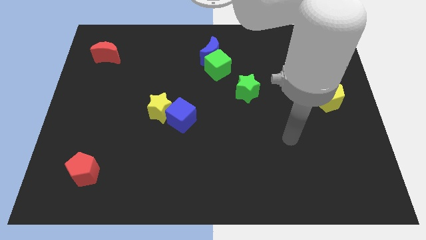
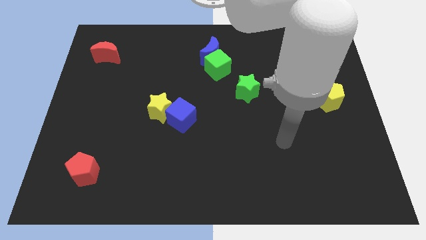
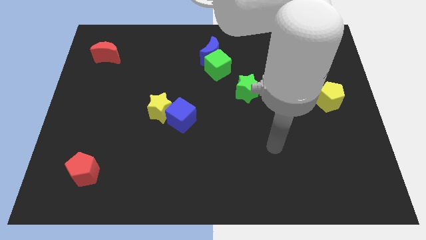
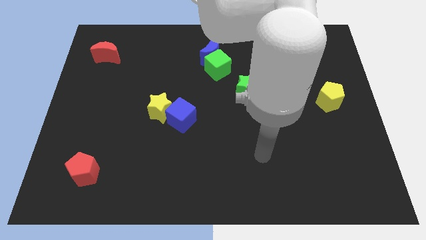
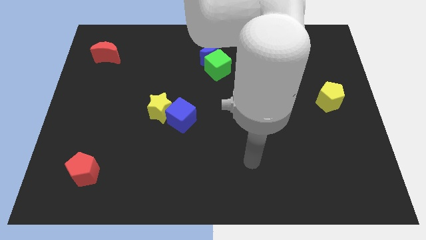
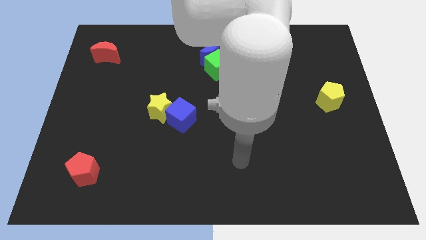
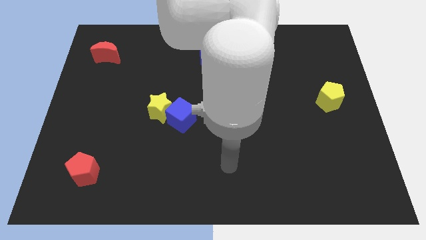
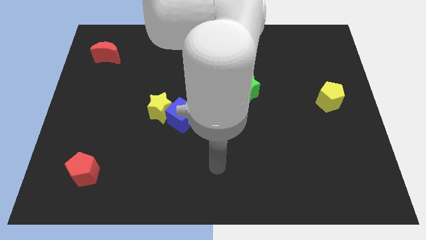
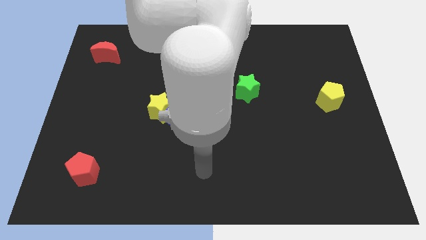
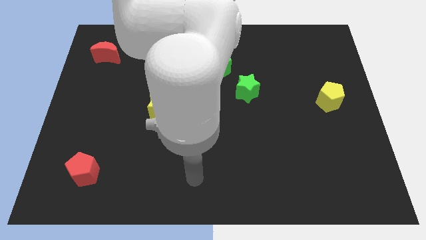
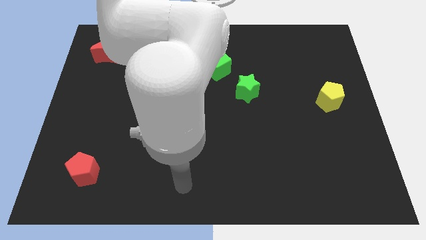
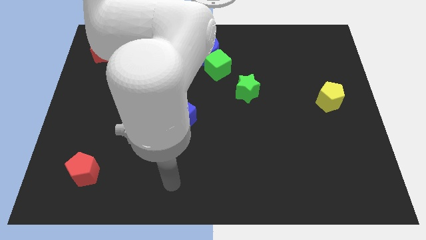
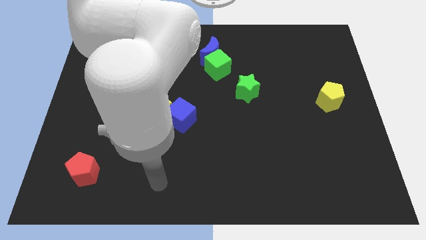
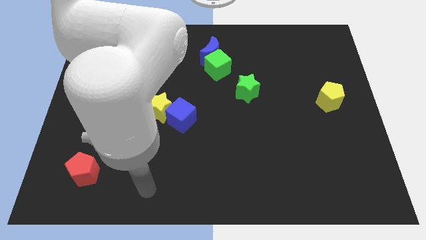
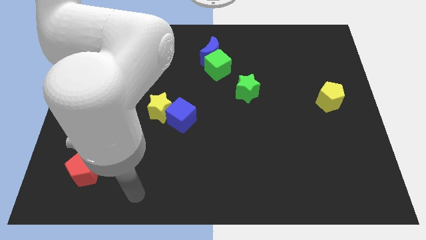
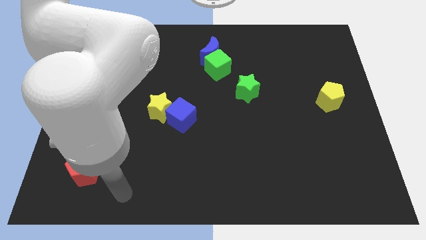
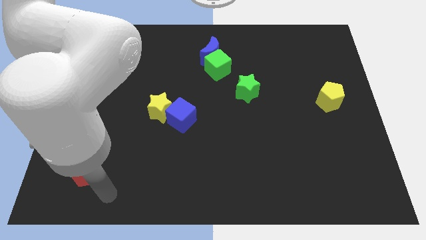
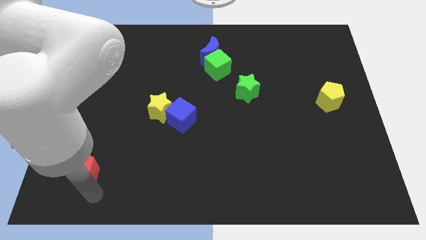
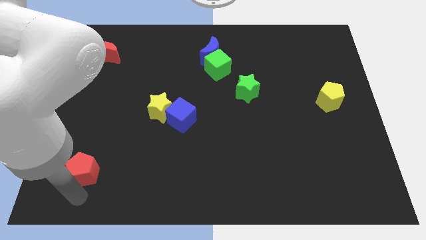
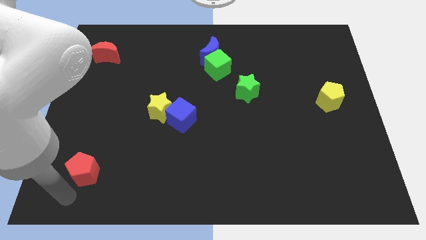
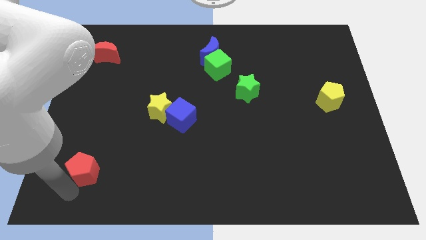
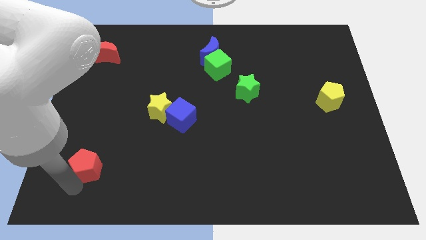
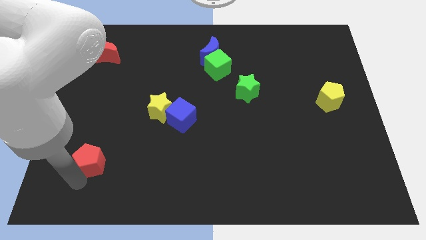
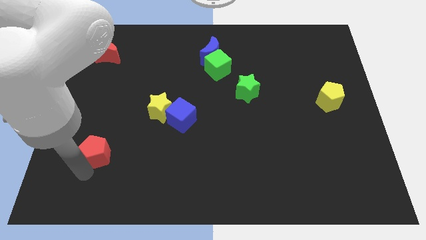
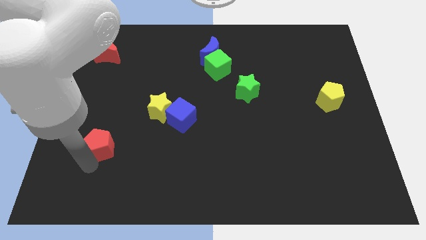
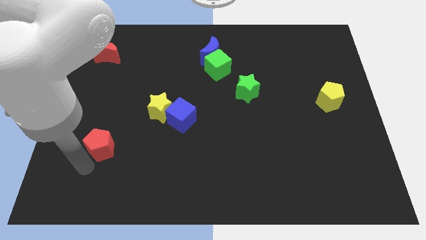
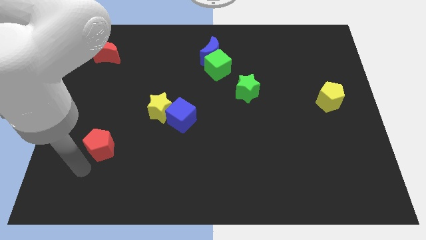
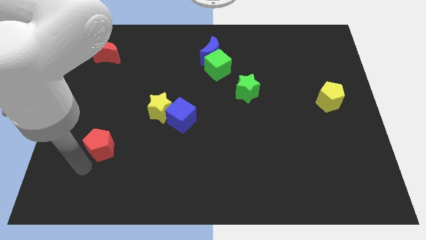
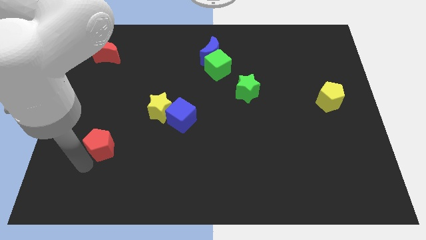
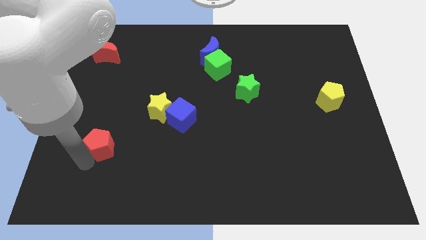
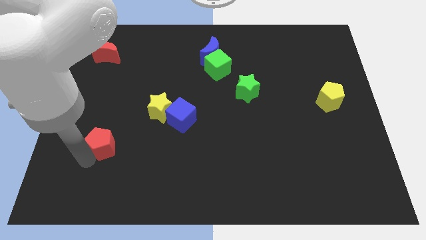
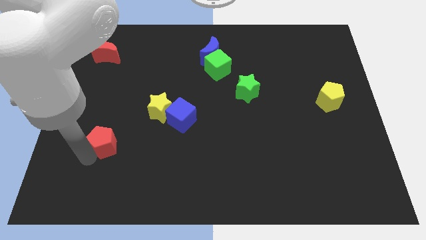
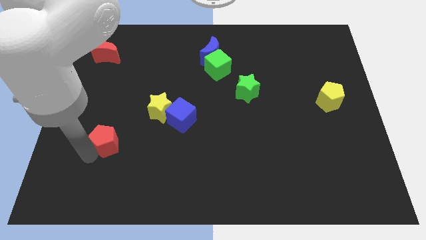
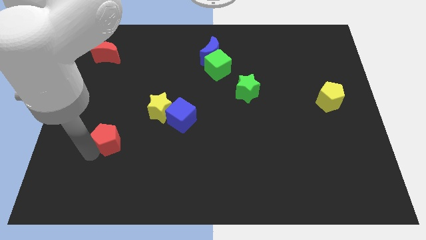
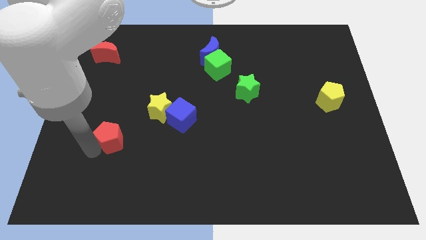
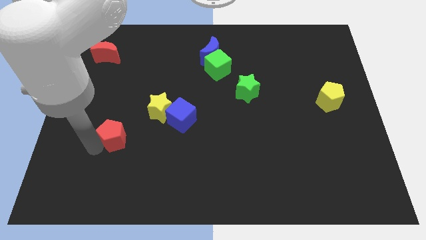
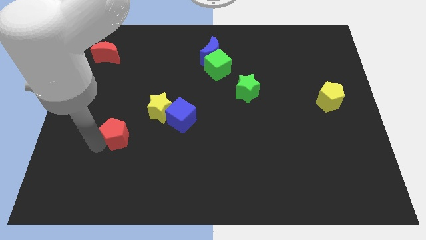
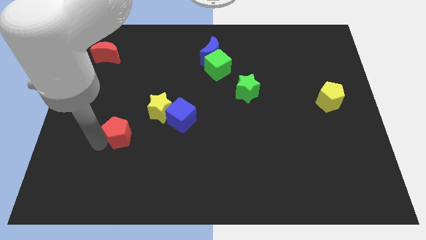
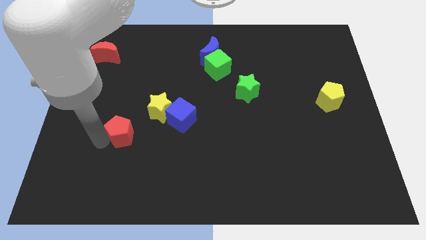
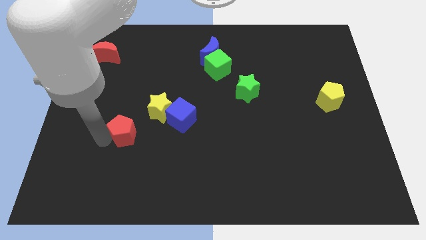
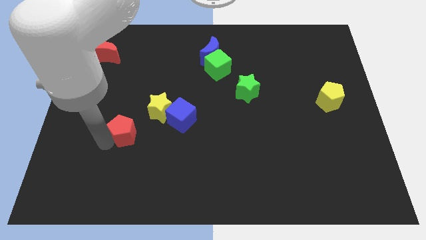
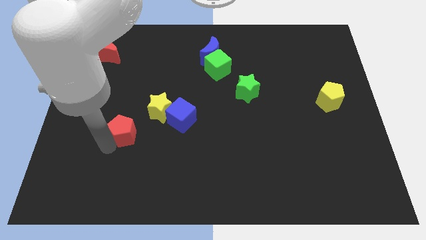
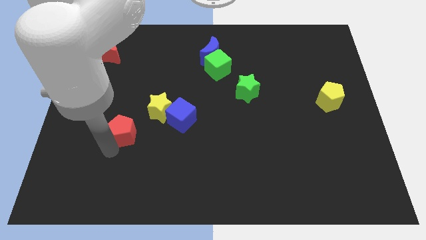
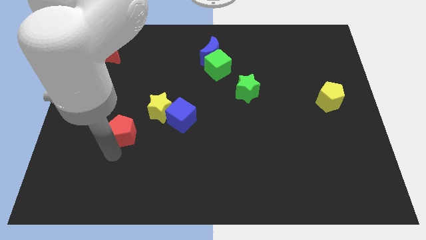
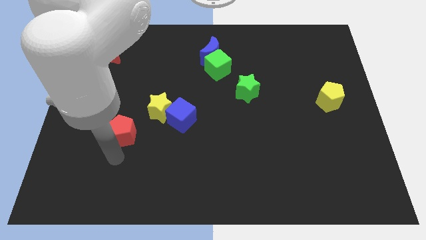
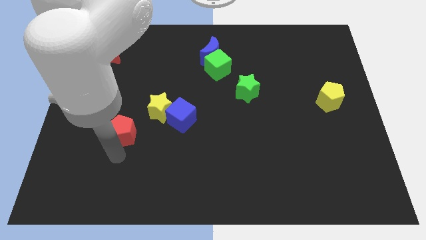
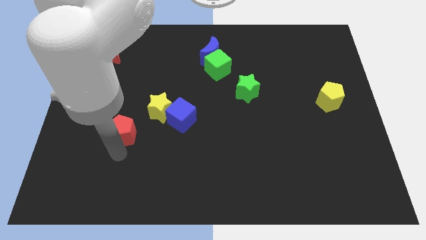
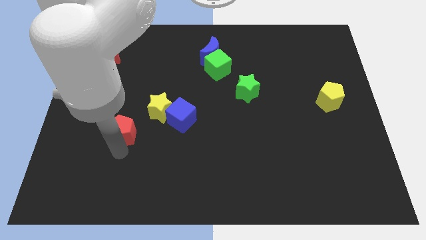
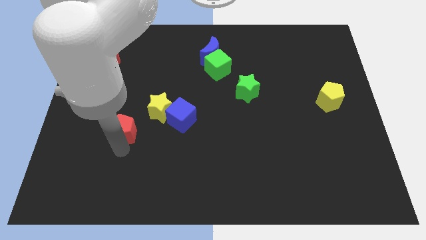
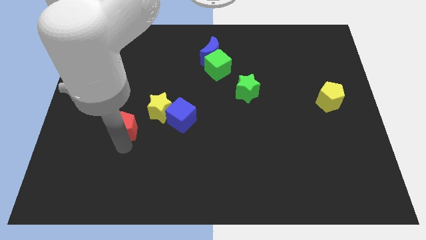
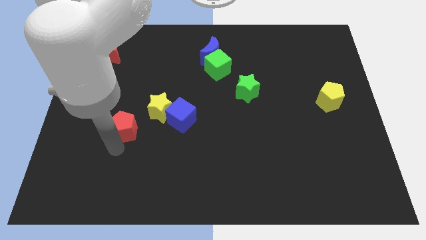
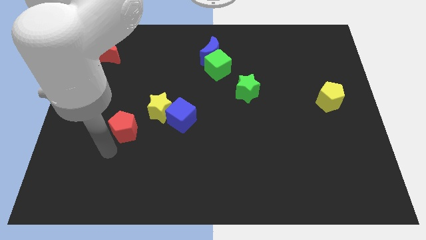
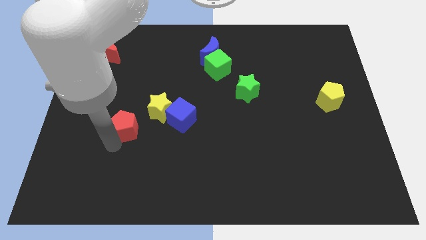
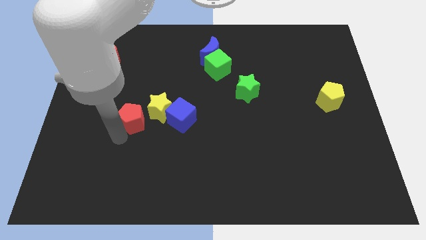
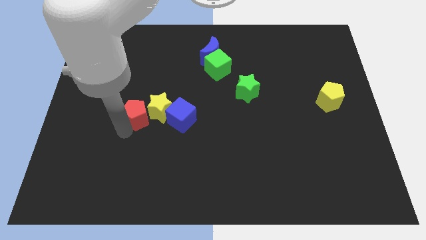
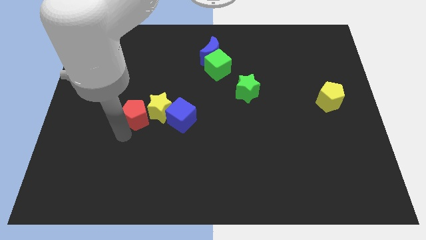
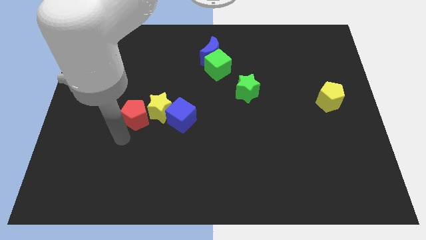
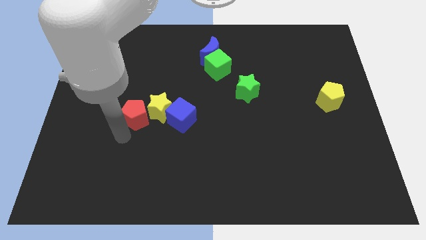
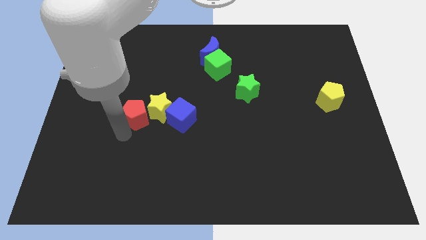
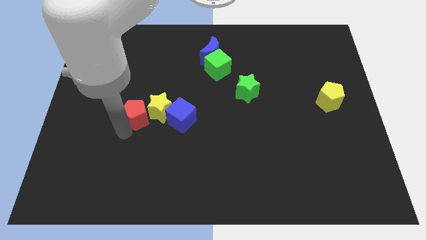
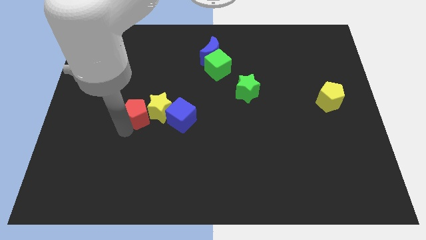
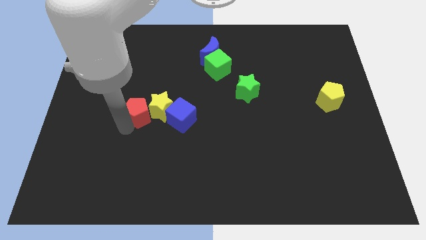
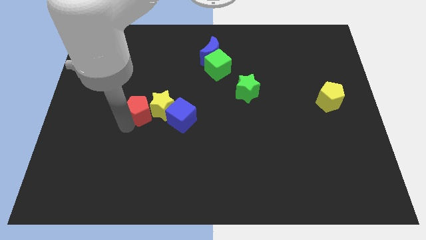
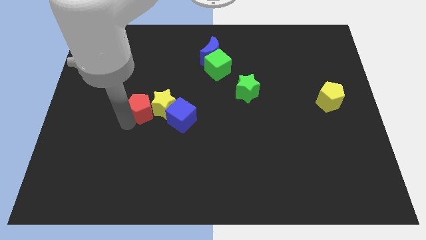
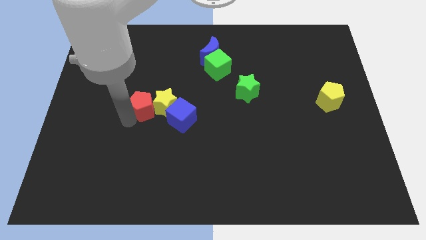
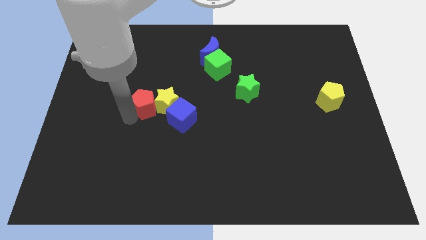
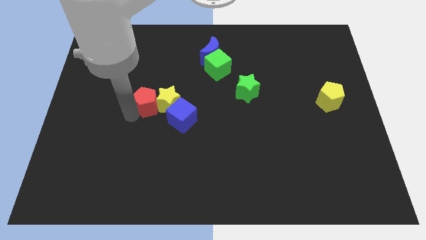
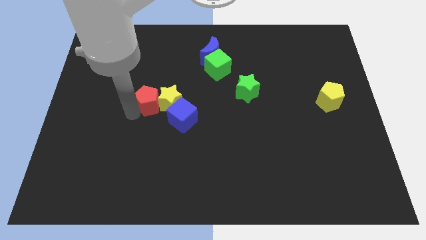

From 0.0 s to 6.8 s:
slide the red pentagon up and right diagonally

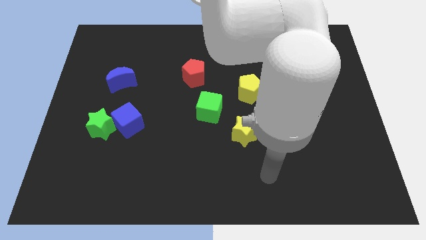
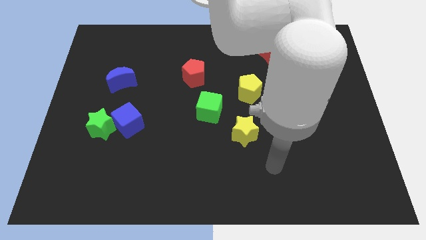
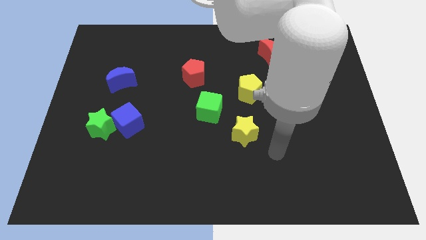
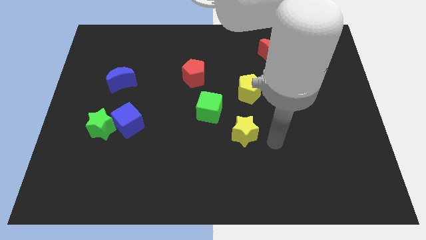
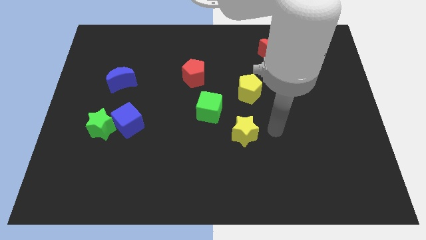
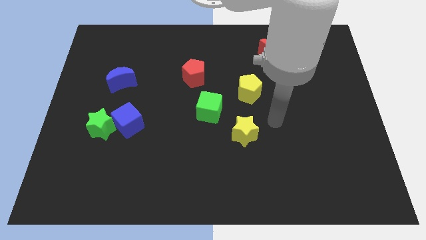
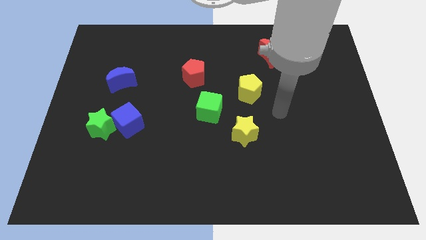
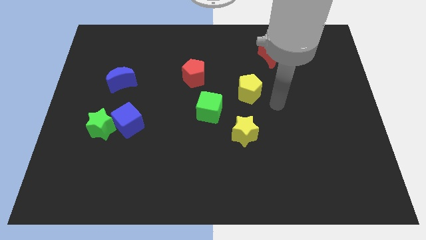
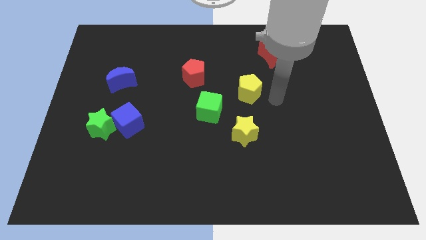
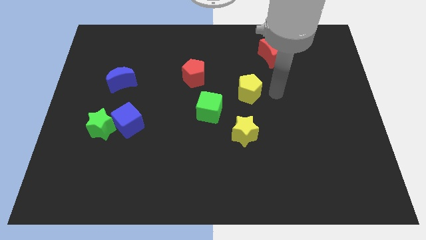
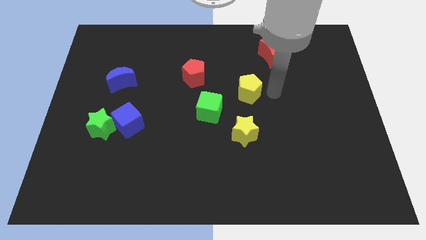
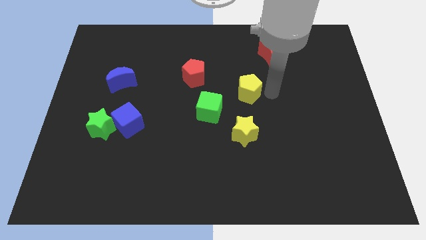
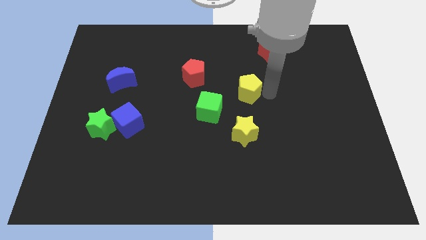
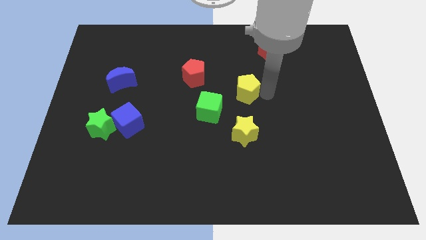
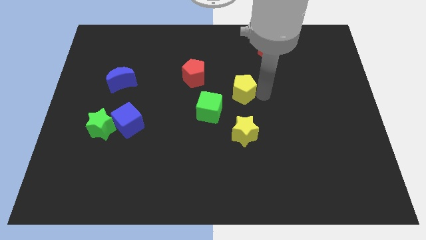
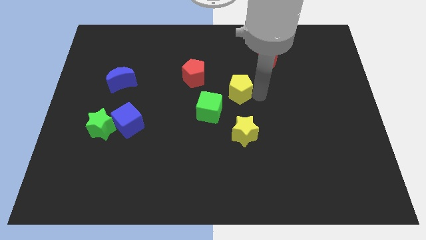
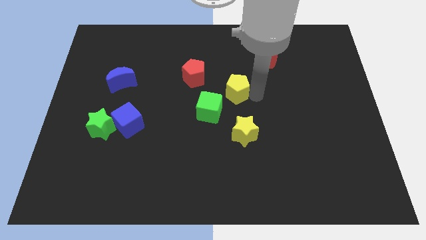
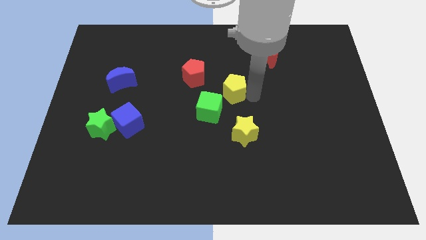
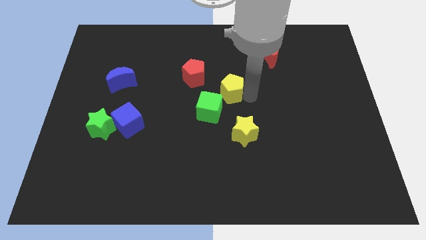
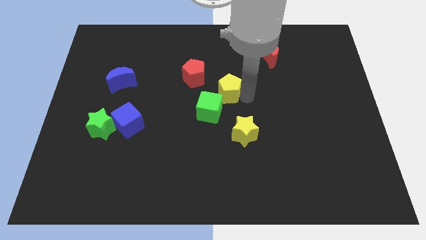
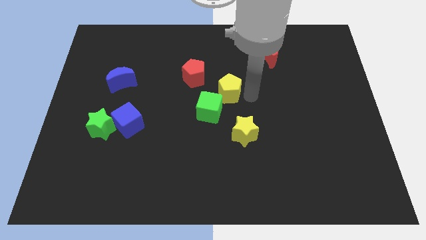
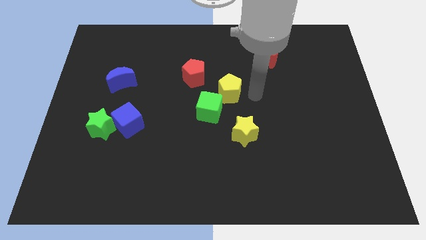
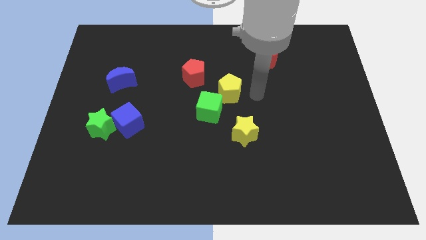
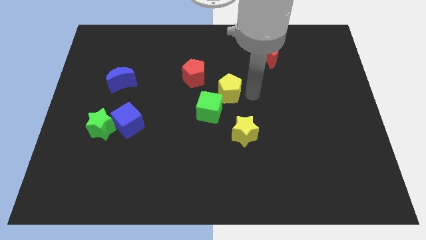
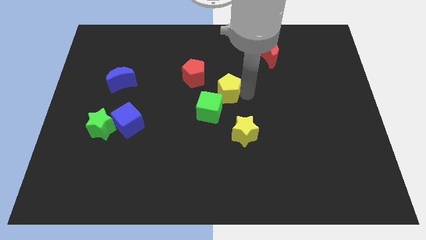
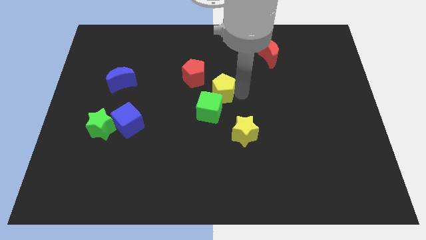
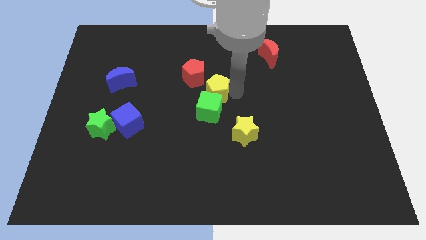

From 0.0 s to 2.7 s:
push the yellow pentagon somewhat to the left
